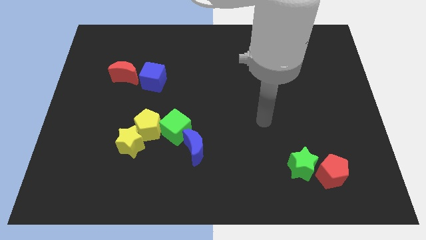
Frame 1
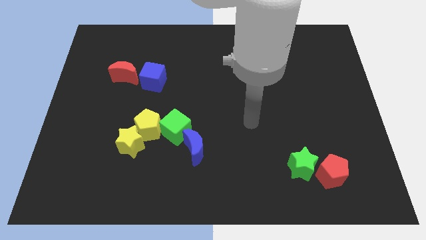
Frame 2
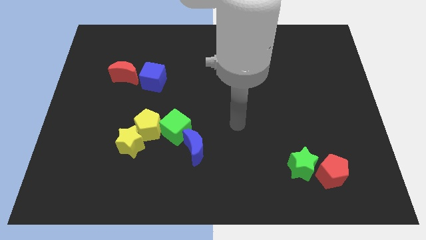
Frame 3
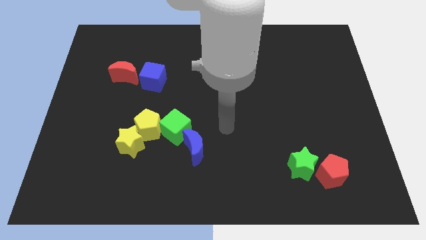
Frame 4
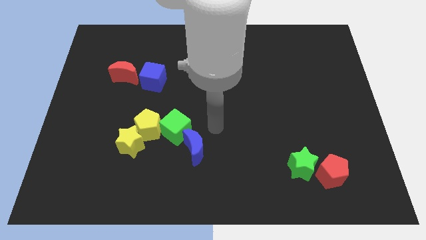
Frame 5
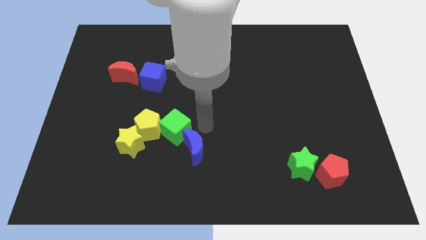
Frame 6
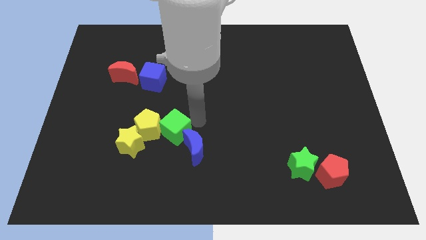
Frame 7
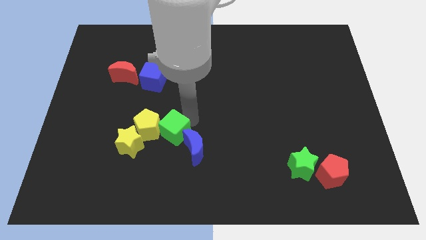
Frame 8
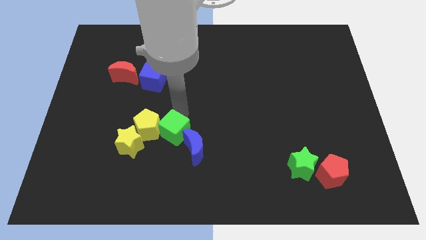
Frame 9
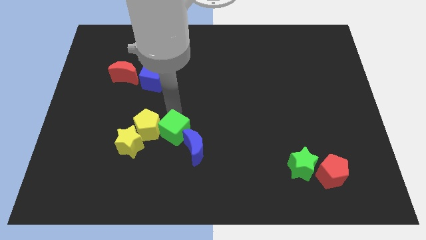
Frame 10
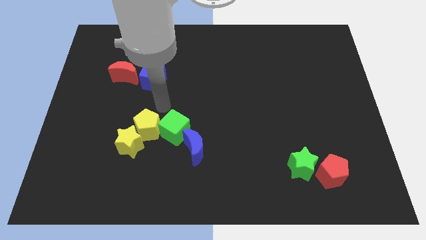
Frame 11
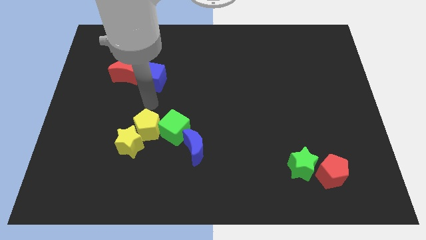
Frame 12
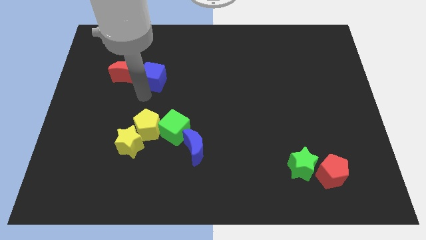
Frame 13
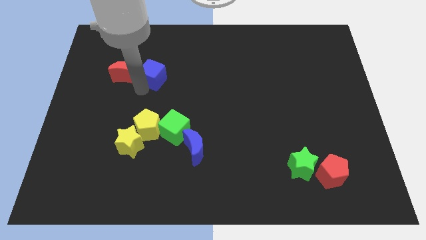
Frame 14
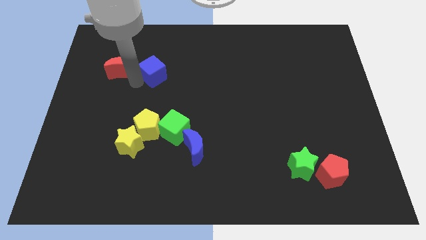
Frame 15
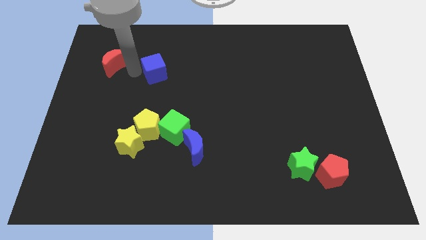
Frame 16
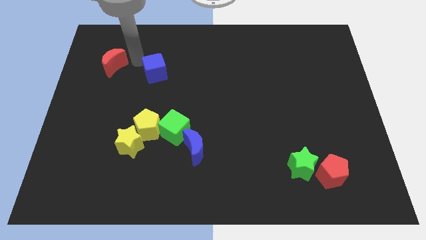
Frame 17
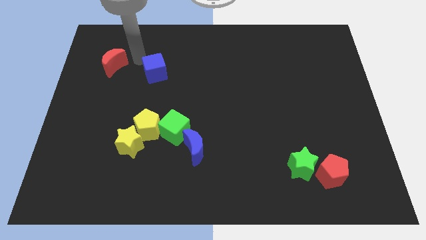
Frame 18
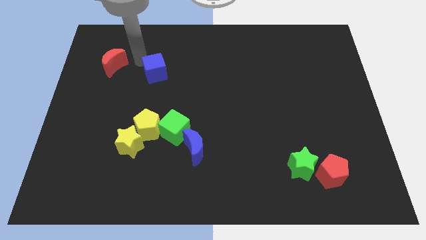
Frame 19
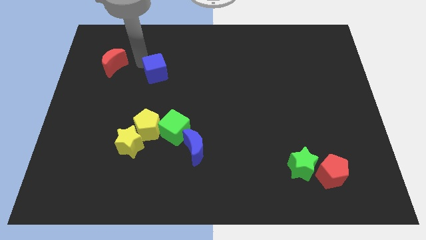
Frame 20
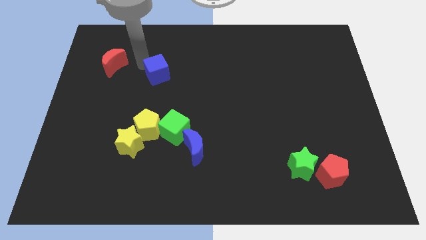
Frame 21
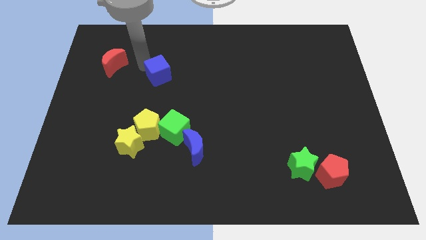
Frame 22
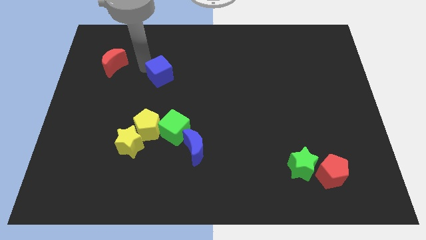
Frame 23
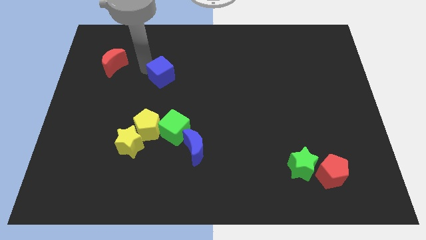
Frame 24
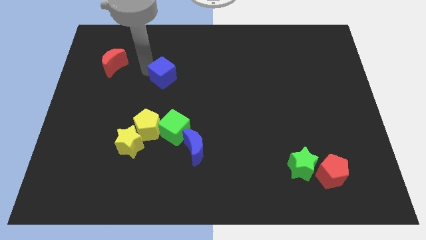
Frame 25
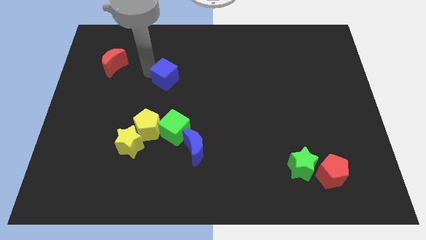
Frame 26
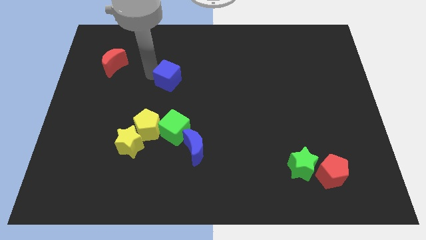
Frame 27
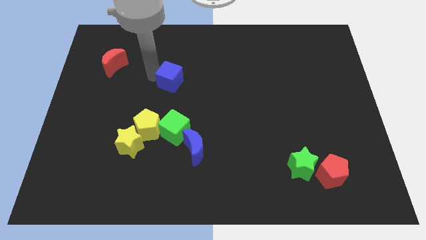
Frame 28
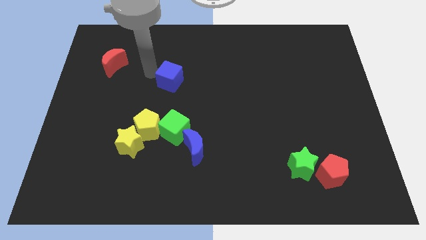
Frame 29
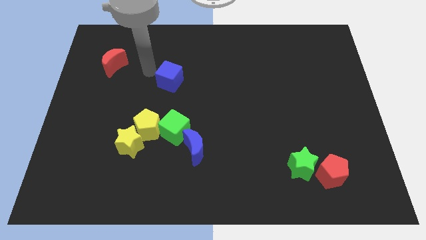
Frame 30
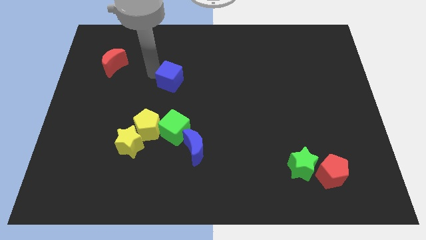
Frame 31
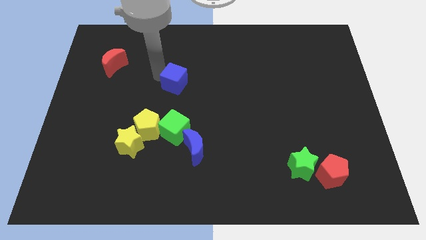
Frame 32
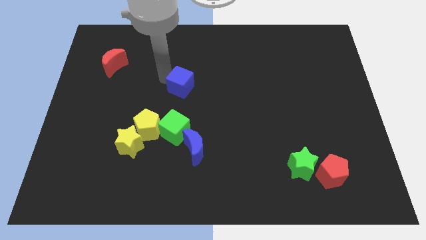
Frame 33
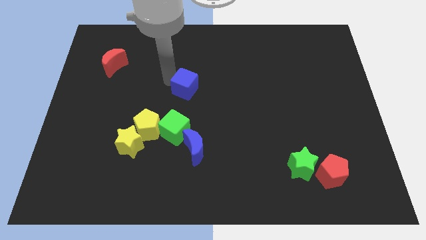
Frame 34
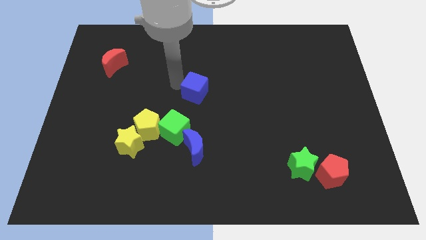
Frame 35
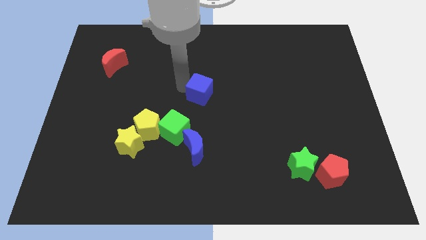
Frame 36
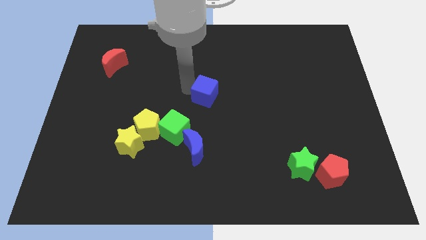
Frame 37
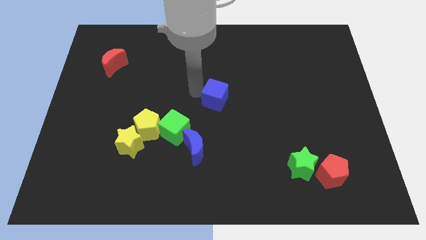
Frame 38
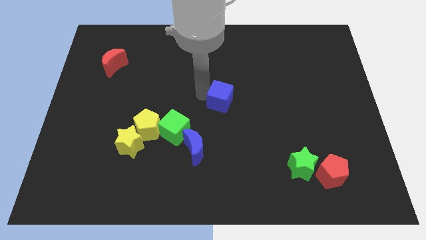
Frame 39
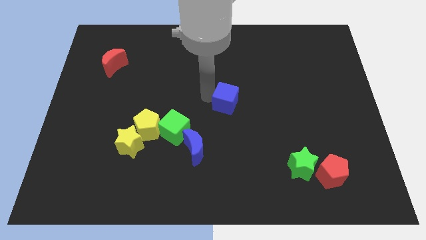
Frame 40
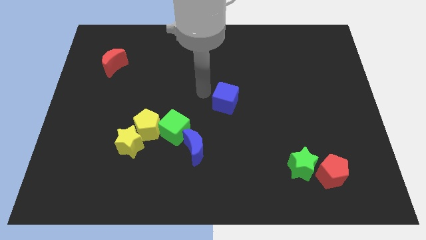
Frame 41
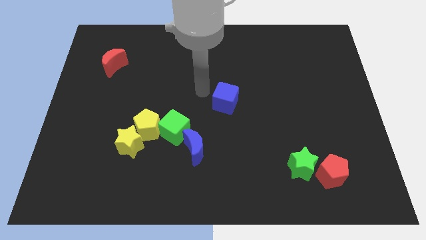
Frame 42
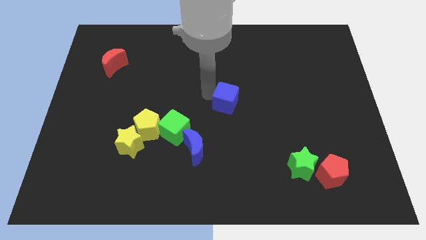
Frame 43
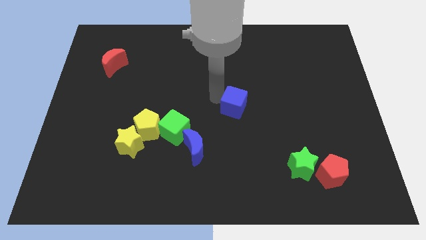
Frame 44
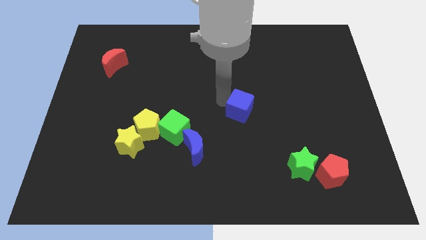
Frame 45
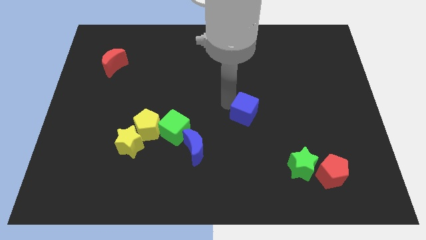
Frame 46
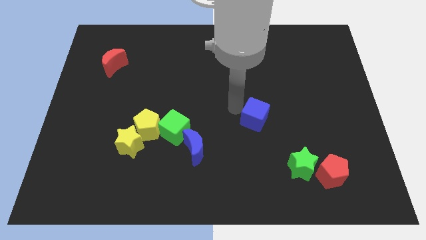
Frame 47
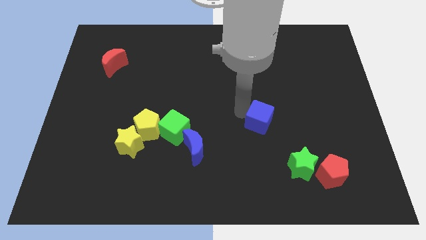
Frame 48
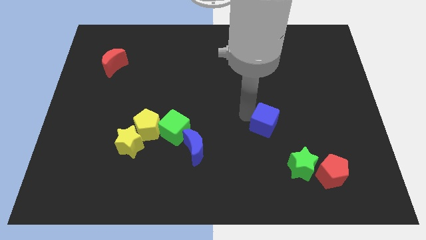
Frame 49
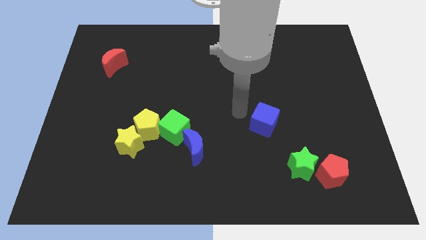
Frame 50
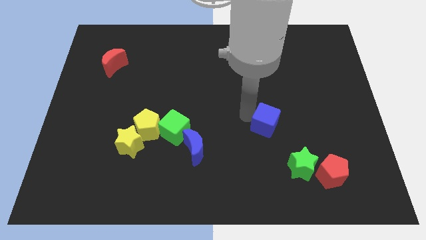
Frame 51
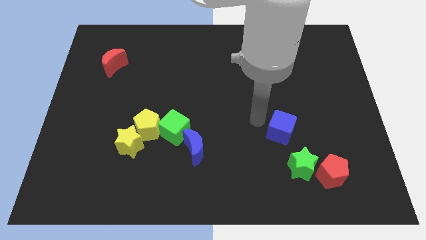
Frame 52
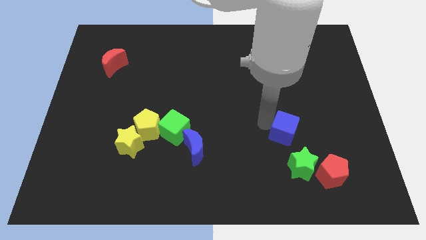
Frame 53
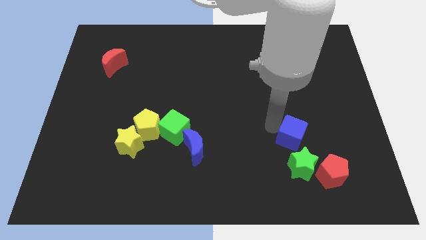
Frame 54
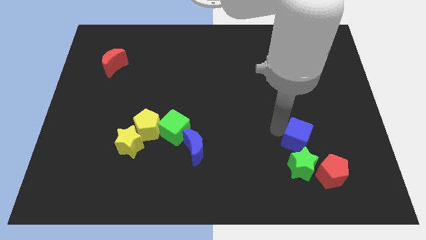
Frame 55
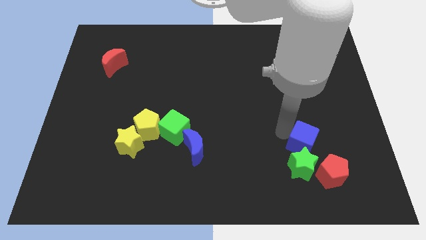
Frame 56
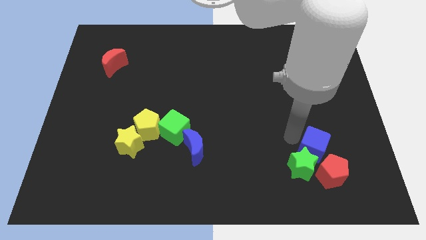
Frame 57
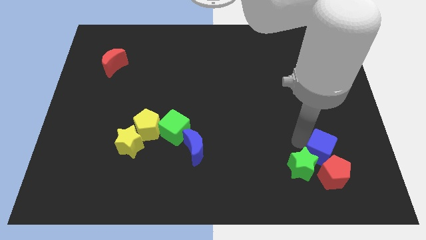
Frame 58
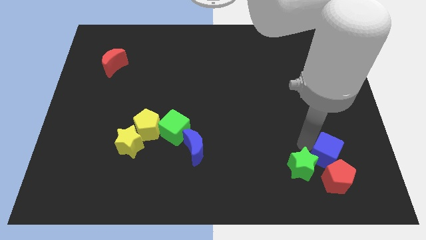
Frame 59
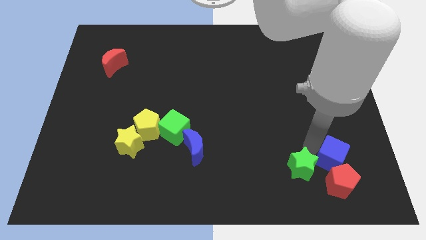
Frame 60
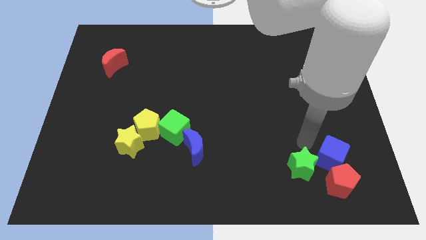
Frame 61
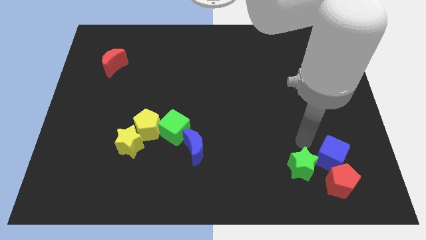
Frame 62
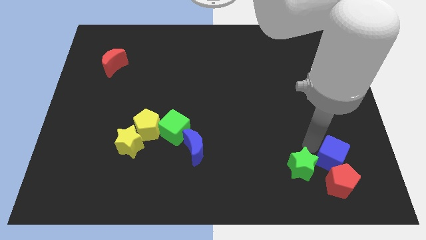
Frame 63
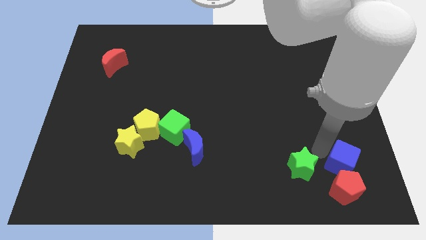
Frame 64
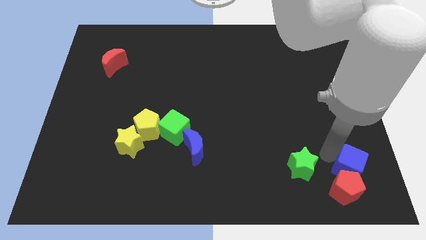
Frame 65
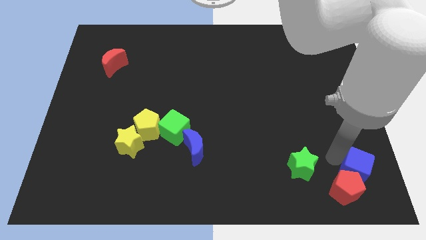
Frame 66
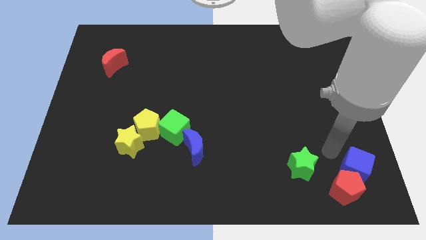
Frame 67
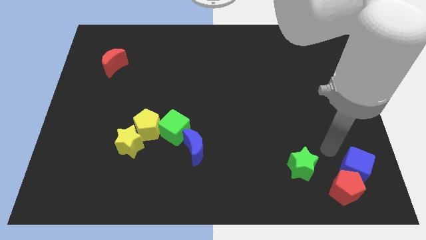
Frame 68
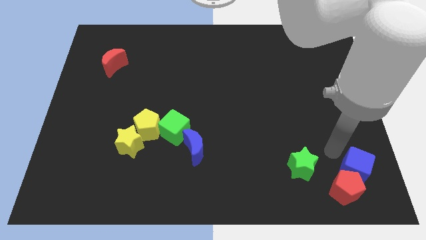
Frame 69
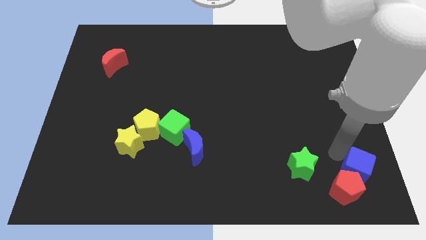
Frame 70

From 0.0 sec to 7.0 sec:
move the blue cube to the bottom right
